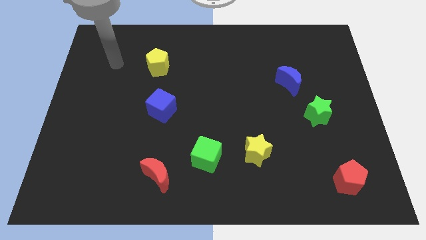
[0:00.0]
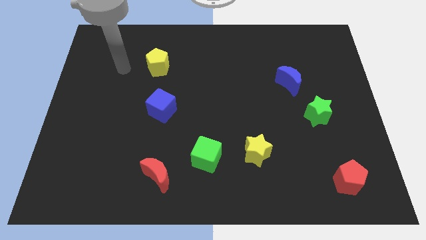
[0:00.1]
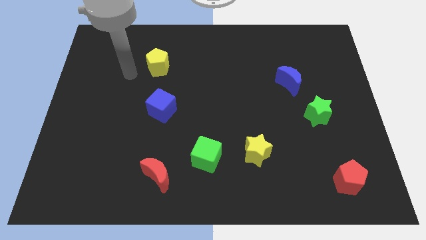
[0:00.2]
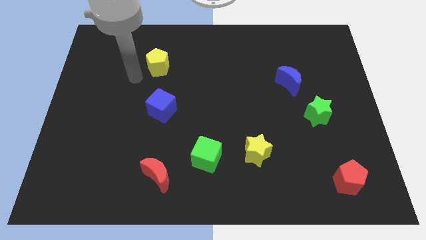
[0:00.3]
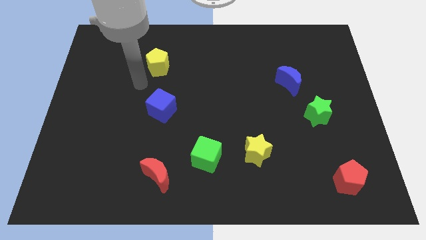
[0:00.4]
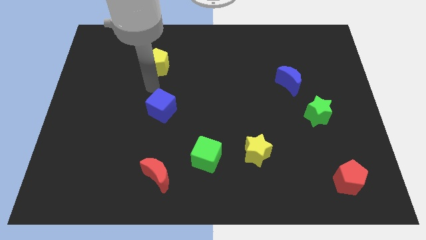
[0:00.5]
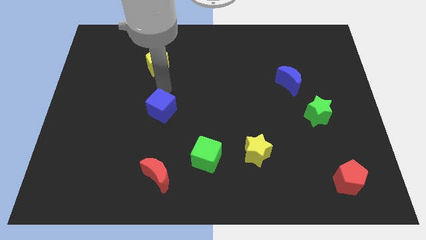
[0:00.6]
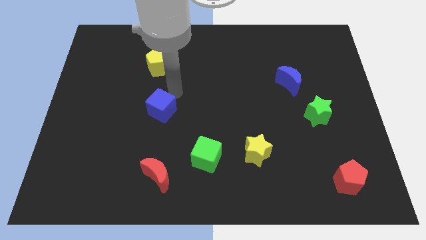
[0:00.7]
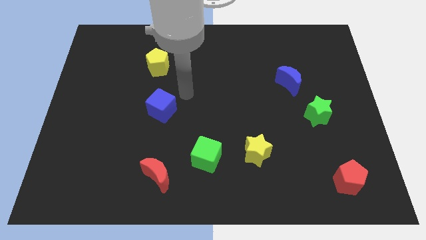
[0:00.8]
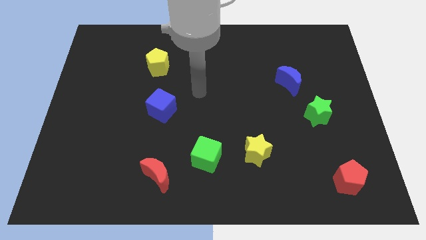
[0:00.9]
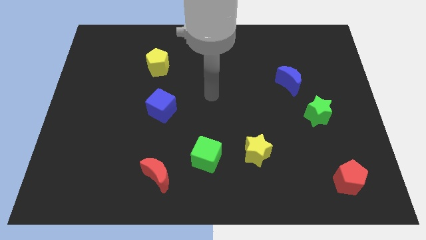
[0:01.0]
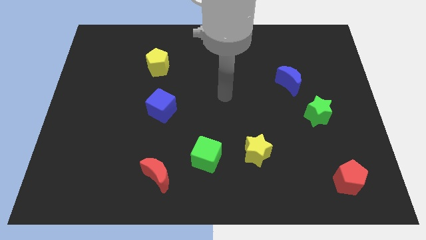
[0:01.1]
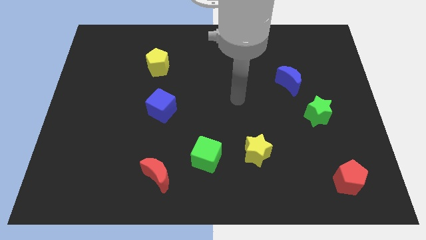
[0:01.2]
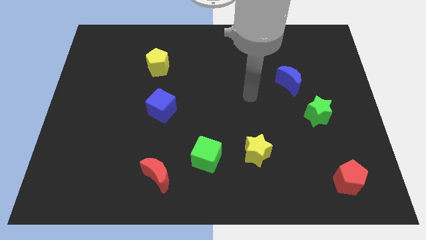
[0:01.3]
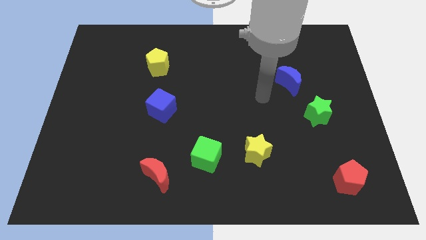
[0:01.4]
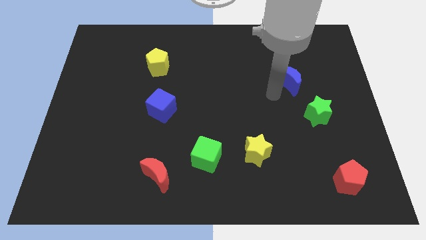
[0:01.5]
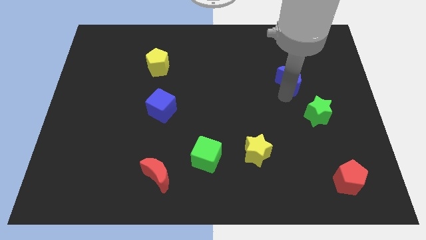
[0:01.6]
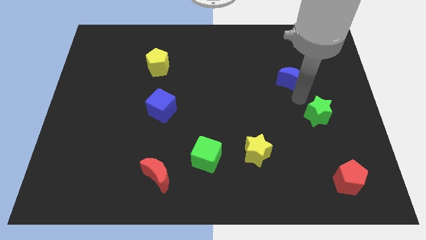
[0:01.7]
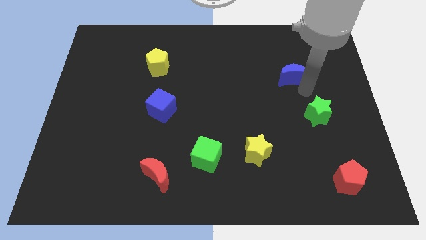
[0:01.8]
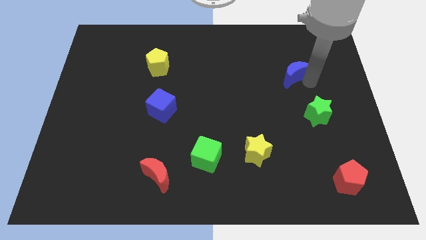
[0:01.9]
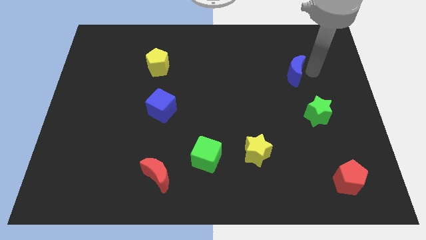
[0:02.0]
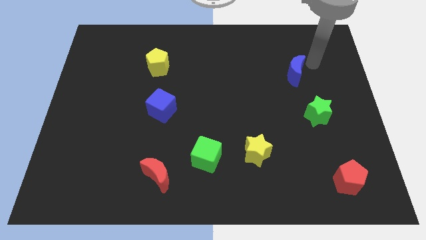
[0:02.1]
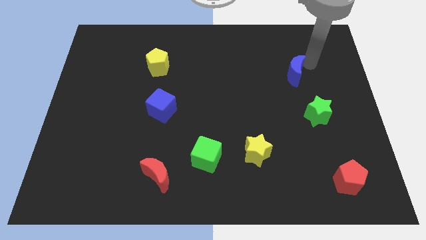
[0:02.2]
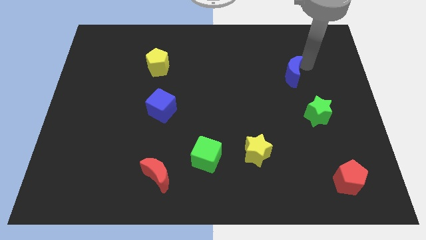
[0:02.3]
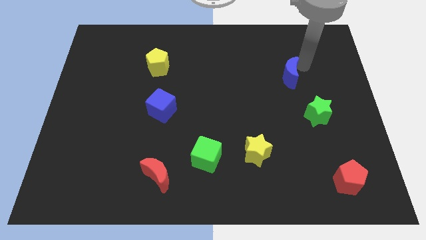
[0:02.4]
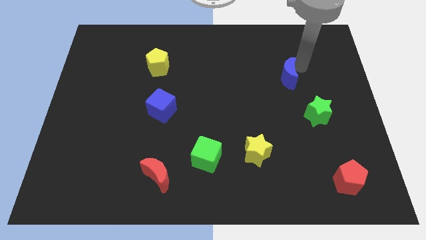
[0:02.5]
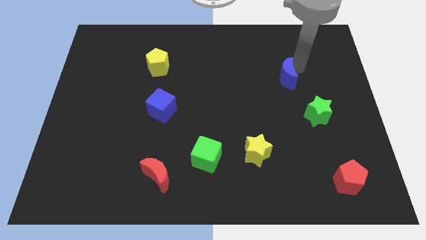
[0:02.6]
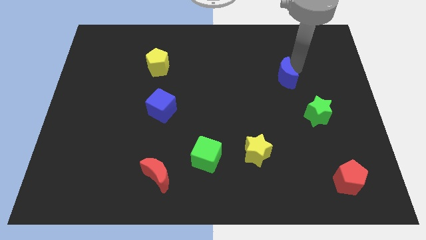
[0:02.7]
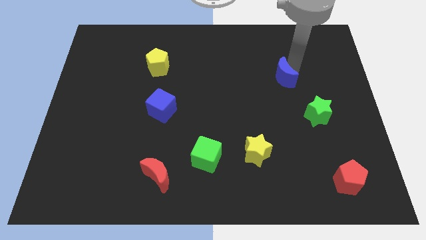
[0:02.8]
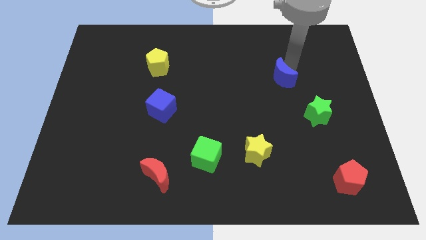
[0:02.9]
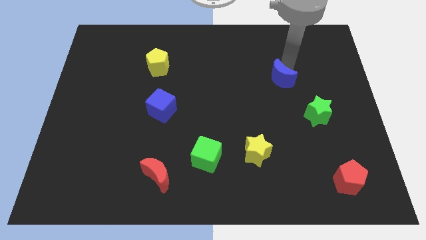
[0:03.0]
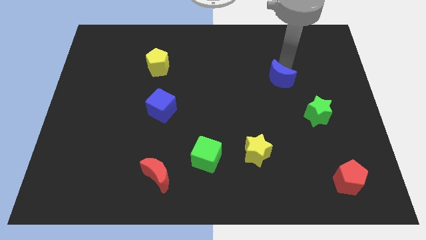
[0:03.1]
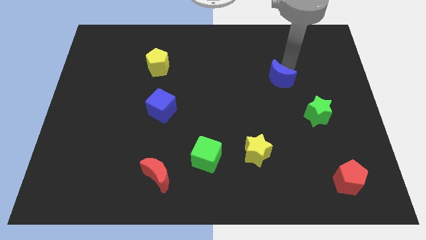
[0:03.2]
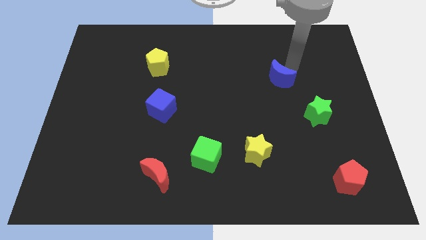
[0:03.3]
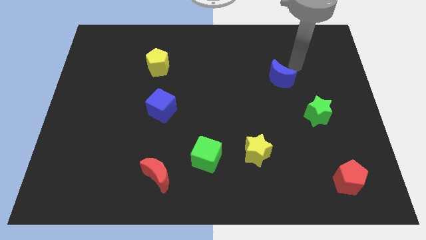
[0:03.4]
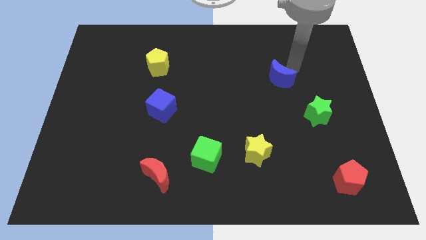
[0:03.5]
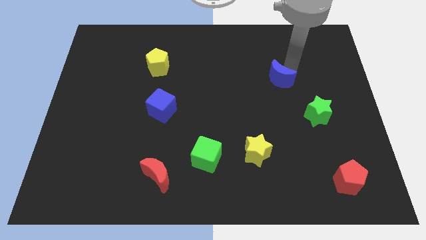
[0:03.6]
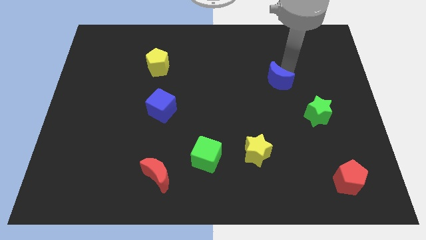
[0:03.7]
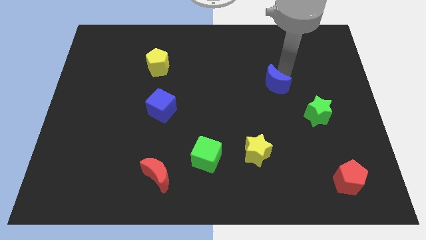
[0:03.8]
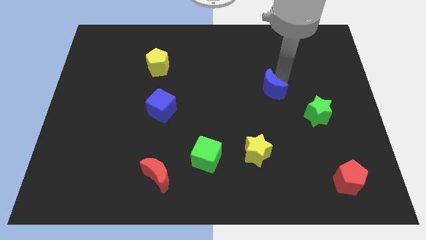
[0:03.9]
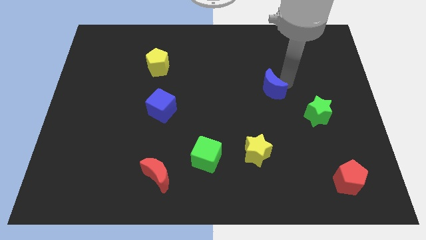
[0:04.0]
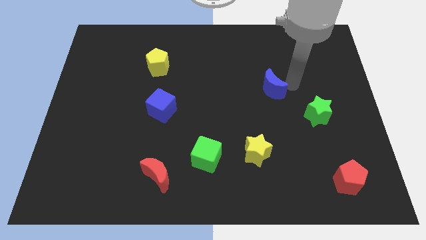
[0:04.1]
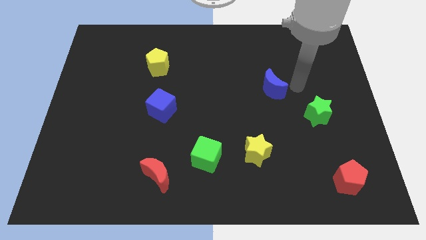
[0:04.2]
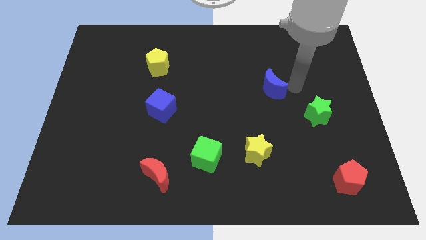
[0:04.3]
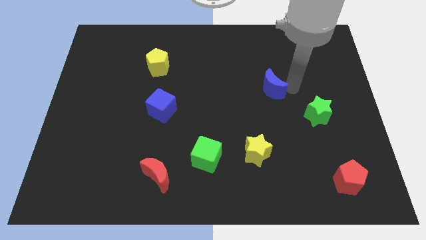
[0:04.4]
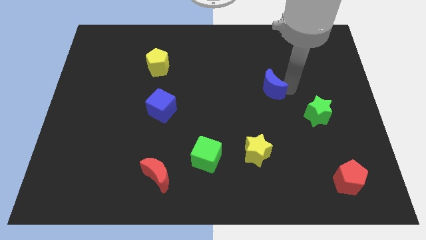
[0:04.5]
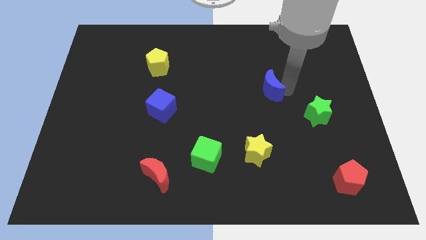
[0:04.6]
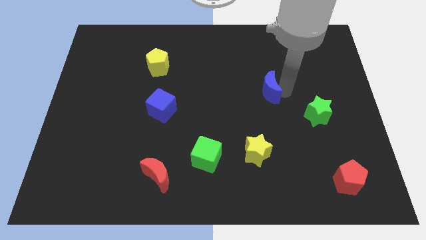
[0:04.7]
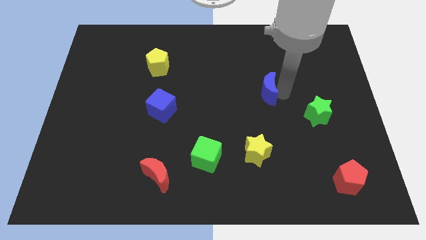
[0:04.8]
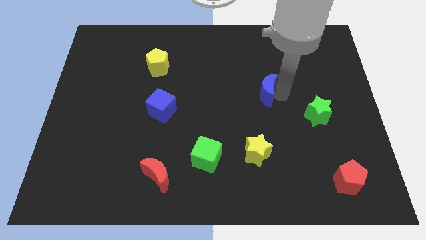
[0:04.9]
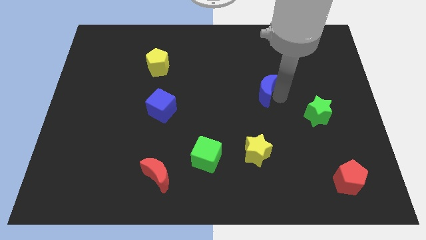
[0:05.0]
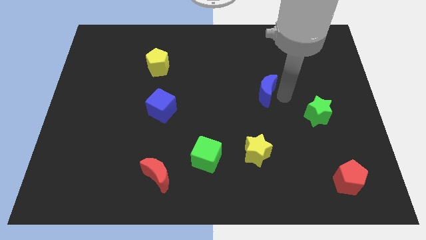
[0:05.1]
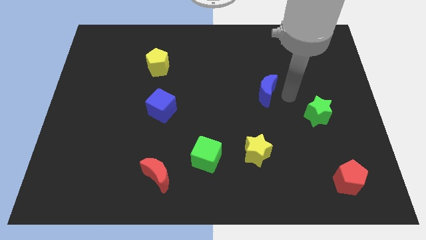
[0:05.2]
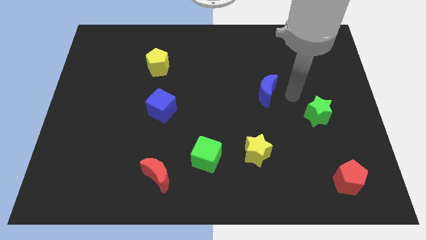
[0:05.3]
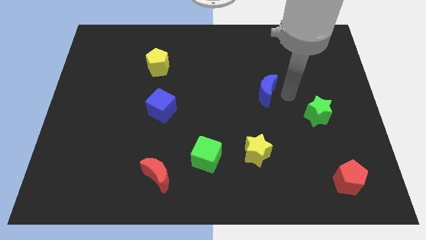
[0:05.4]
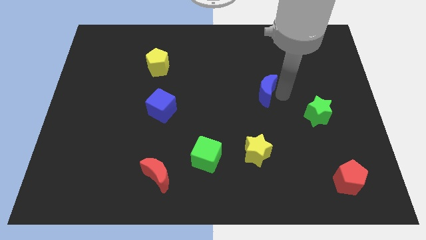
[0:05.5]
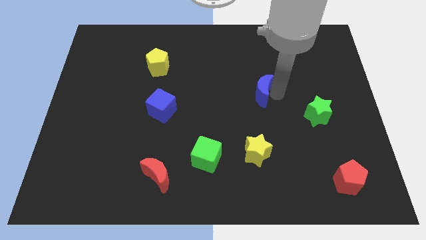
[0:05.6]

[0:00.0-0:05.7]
put the blue moon to the middle

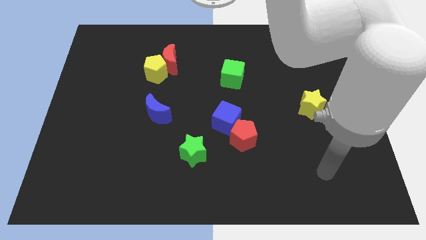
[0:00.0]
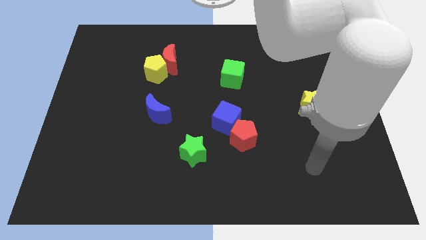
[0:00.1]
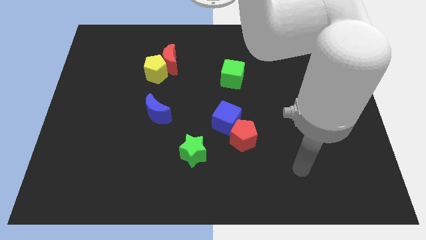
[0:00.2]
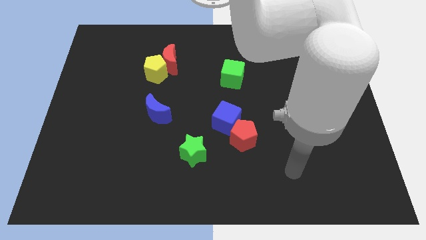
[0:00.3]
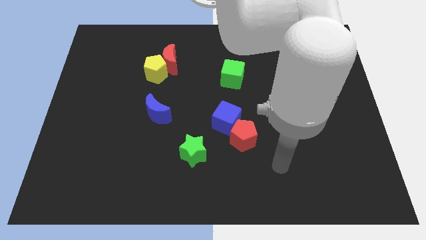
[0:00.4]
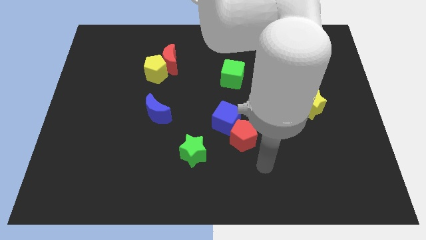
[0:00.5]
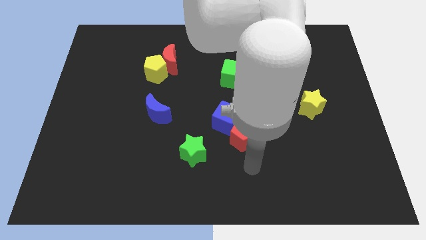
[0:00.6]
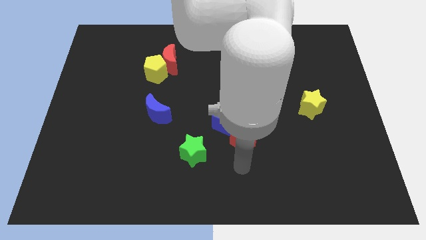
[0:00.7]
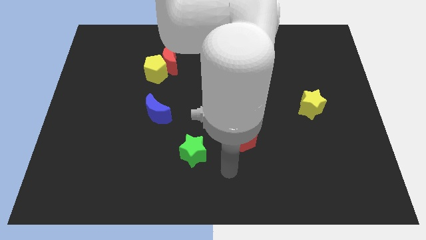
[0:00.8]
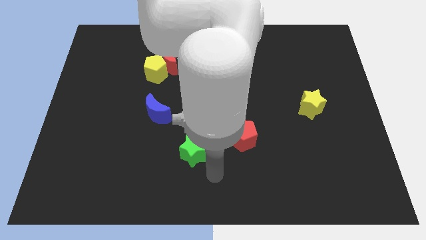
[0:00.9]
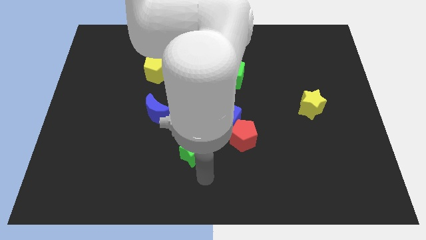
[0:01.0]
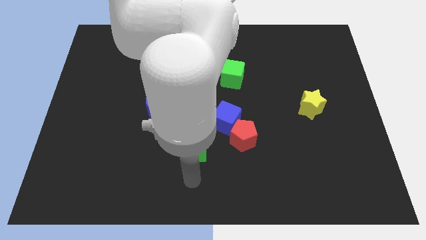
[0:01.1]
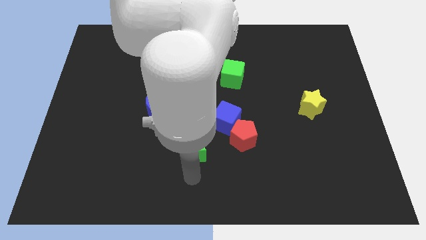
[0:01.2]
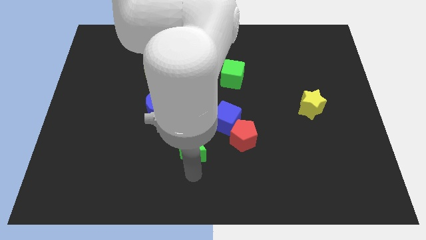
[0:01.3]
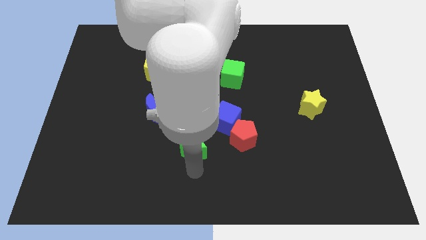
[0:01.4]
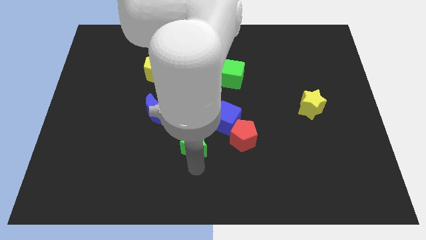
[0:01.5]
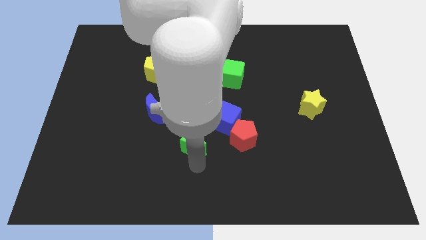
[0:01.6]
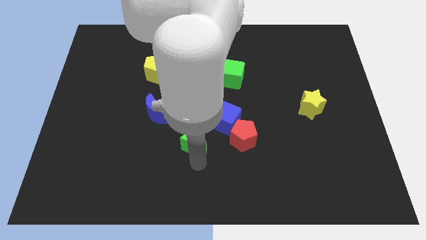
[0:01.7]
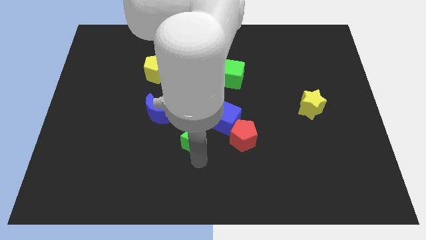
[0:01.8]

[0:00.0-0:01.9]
push the green star to the center
